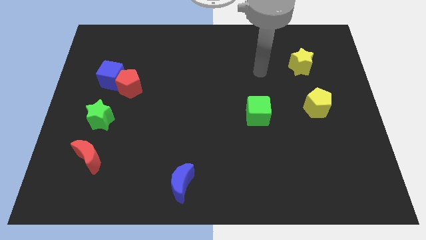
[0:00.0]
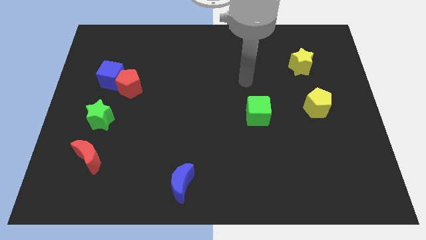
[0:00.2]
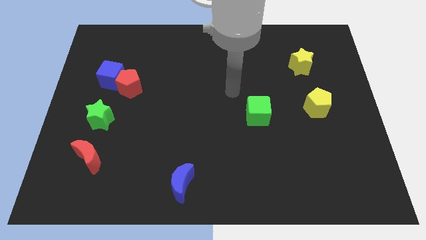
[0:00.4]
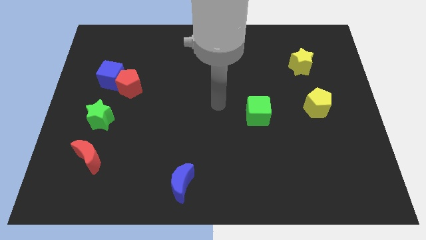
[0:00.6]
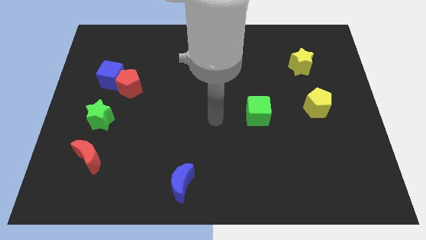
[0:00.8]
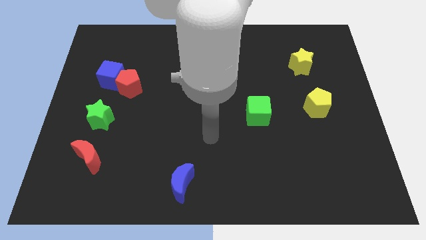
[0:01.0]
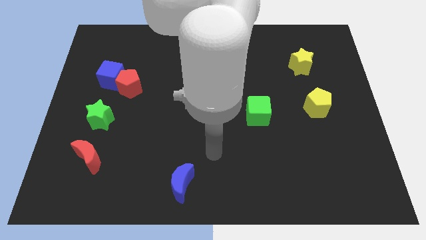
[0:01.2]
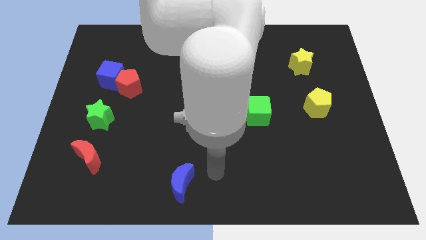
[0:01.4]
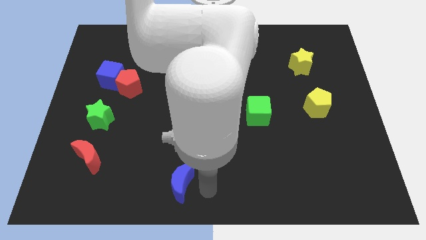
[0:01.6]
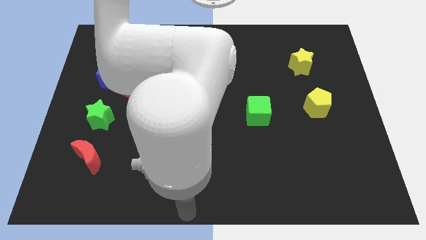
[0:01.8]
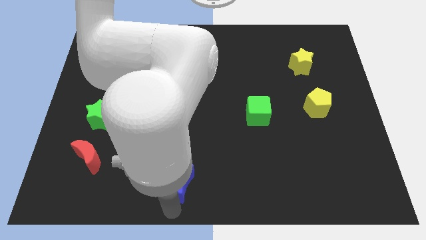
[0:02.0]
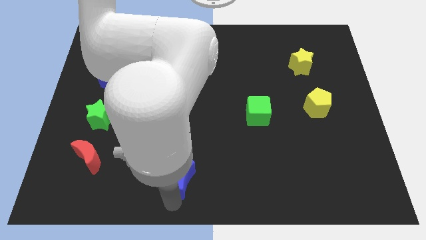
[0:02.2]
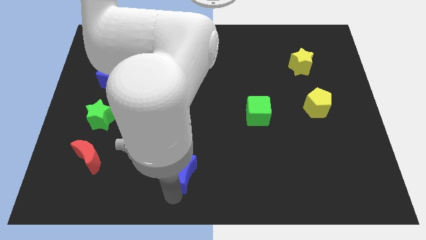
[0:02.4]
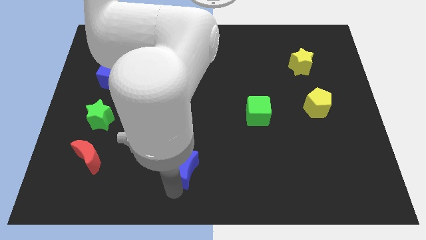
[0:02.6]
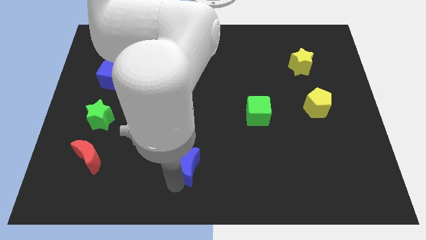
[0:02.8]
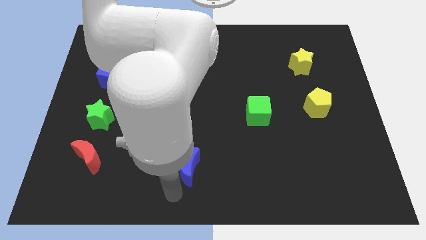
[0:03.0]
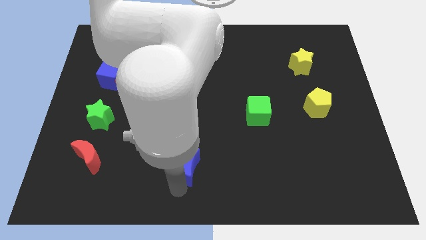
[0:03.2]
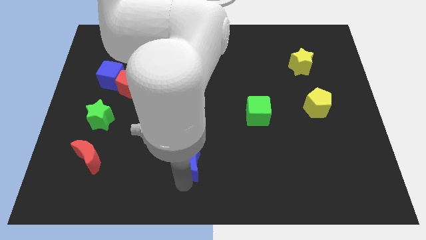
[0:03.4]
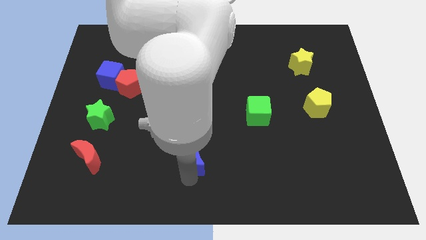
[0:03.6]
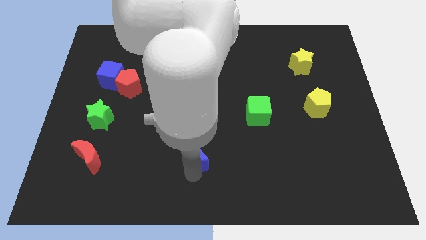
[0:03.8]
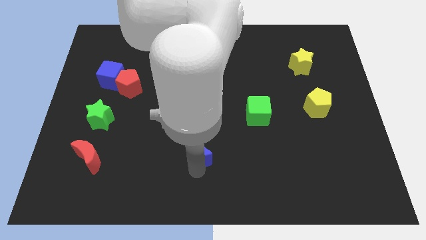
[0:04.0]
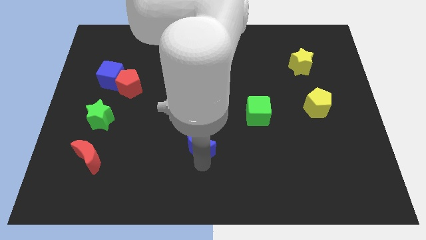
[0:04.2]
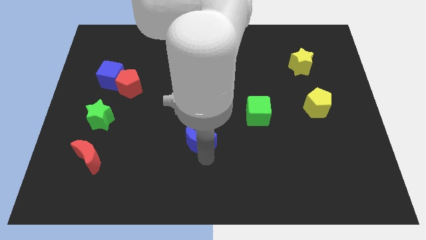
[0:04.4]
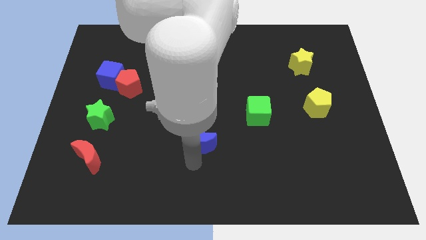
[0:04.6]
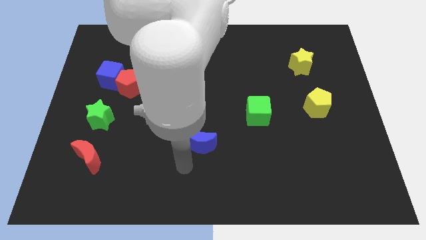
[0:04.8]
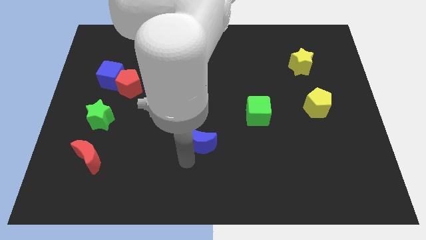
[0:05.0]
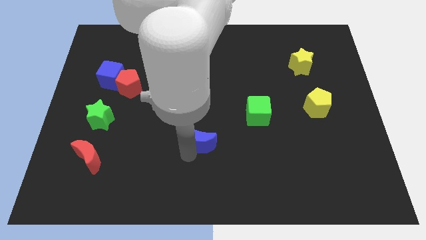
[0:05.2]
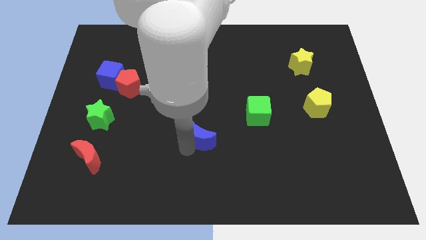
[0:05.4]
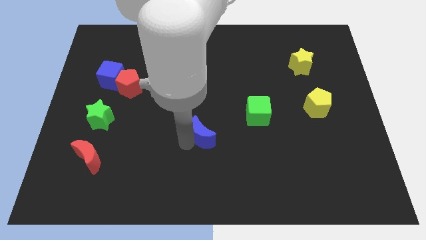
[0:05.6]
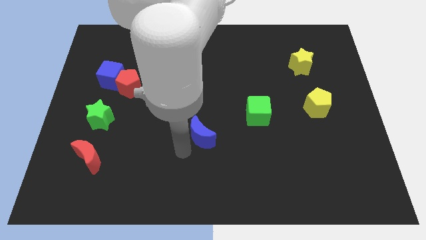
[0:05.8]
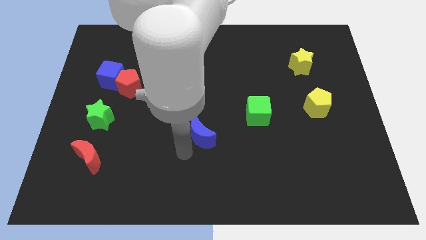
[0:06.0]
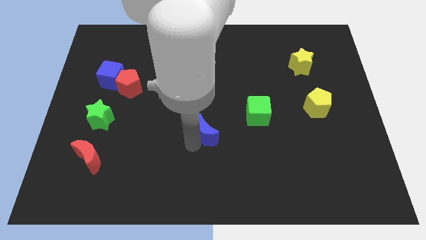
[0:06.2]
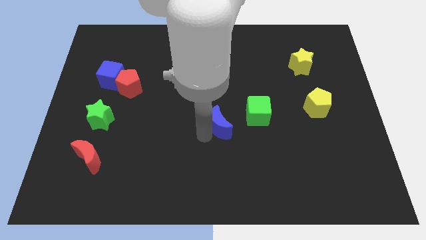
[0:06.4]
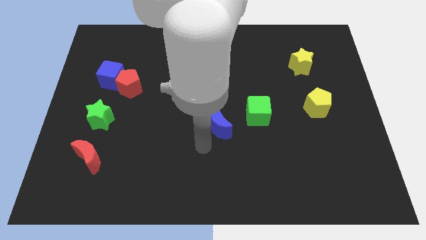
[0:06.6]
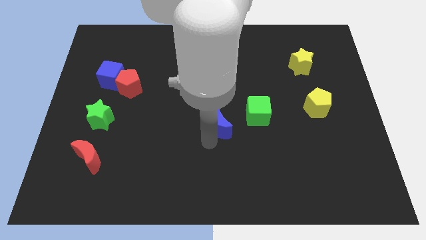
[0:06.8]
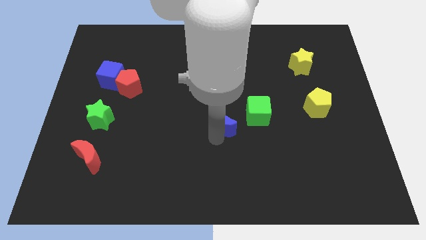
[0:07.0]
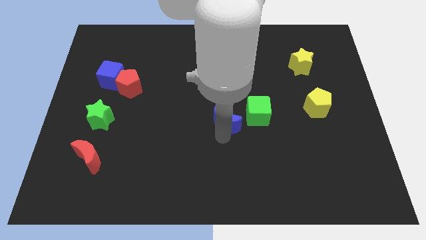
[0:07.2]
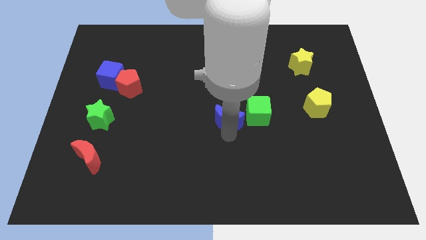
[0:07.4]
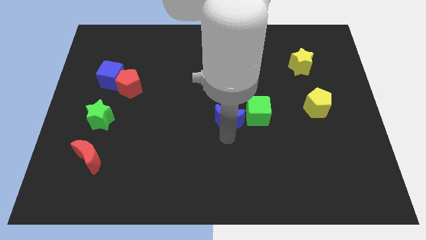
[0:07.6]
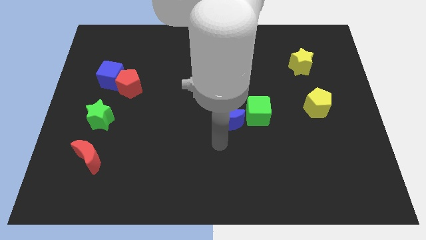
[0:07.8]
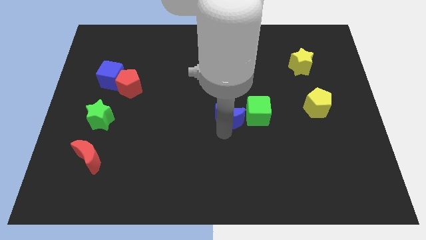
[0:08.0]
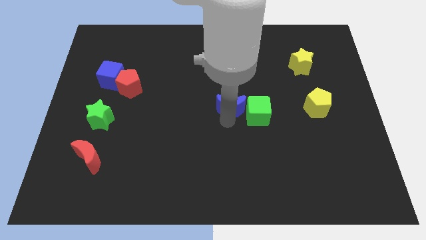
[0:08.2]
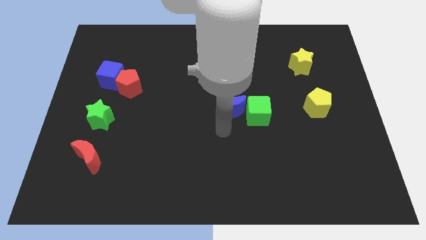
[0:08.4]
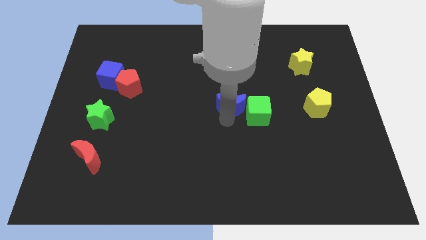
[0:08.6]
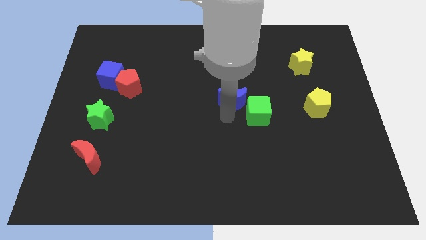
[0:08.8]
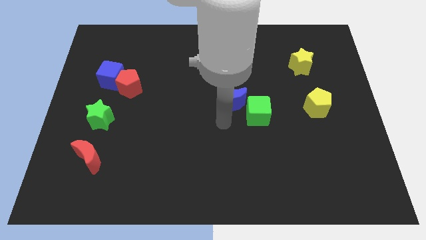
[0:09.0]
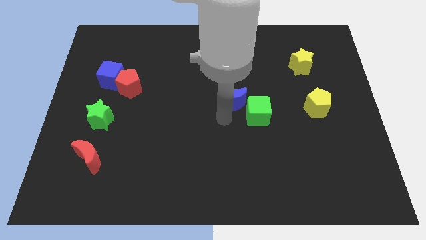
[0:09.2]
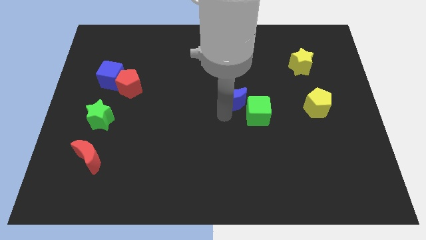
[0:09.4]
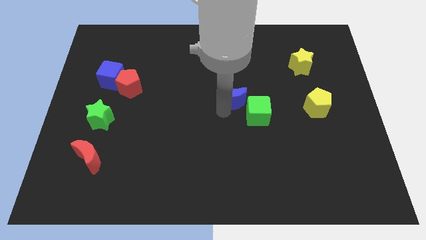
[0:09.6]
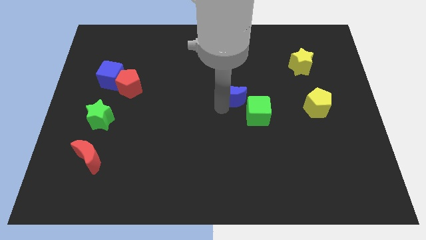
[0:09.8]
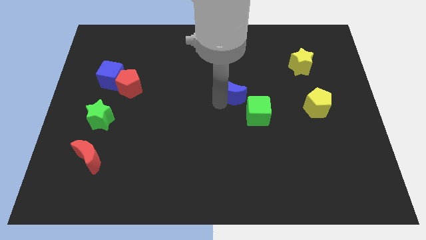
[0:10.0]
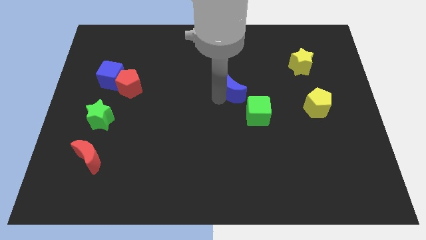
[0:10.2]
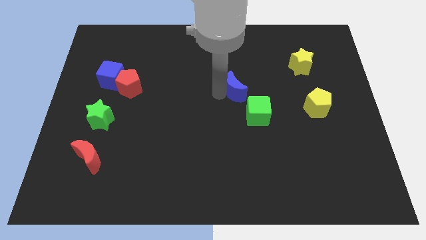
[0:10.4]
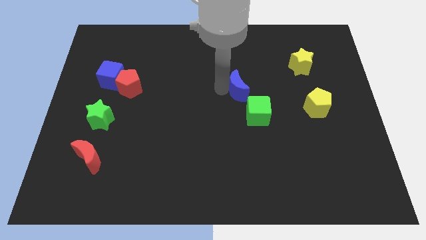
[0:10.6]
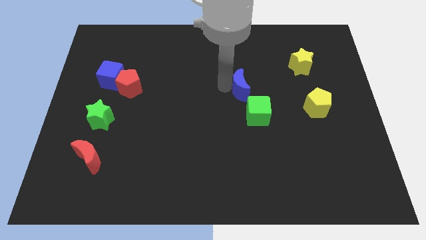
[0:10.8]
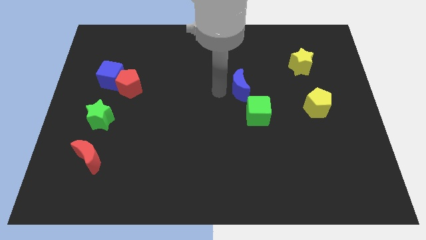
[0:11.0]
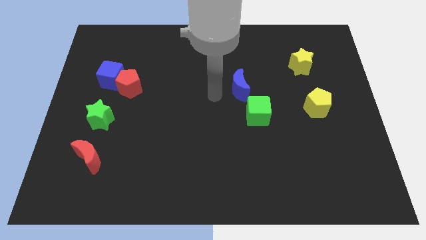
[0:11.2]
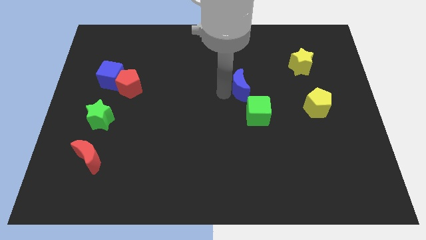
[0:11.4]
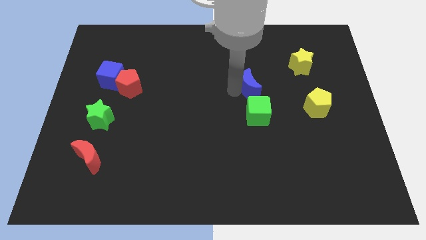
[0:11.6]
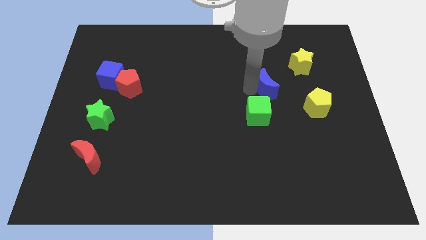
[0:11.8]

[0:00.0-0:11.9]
slide the blue moon diagonally down and to the left of the yellow star

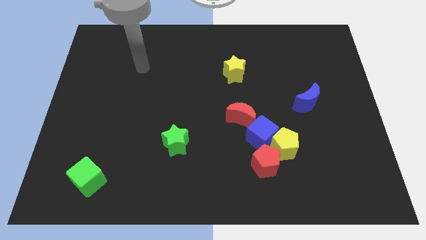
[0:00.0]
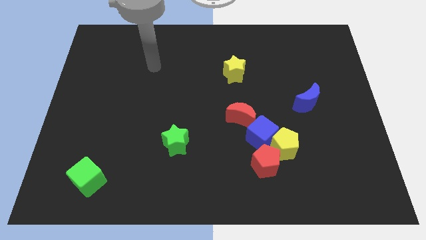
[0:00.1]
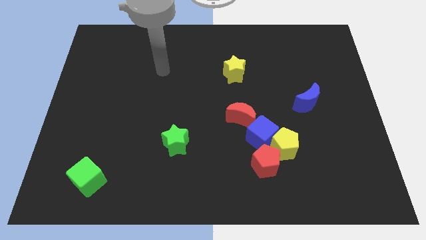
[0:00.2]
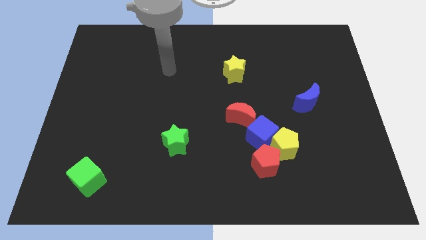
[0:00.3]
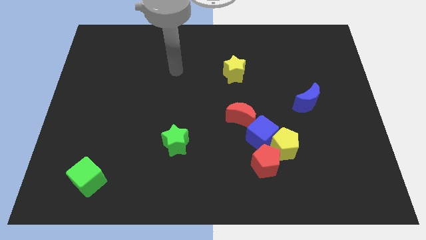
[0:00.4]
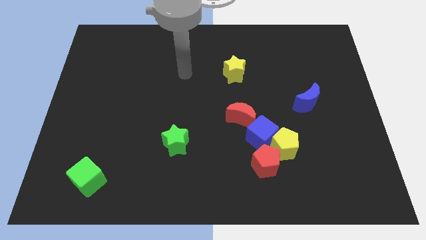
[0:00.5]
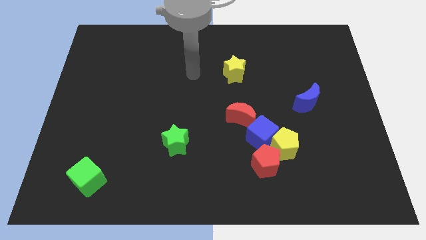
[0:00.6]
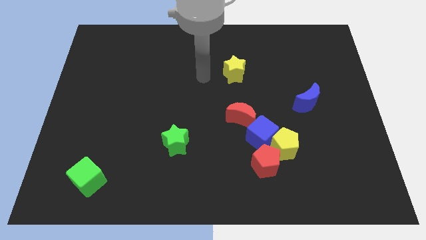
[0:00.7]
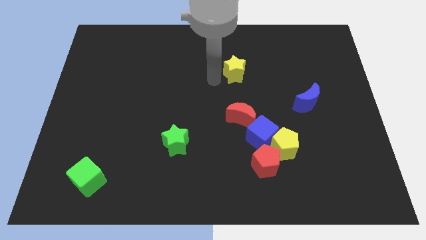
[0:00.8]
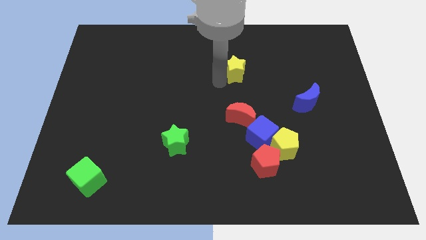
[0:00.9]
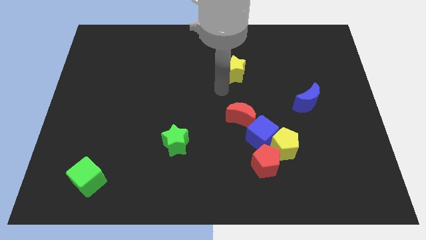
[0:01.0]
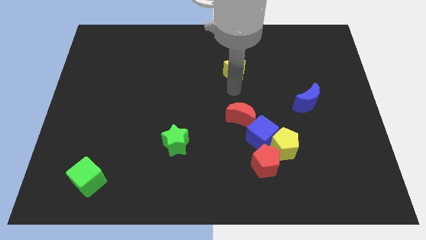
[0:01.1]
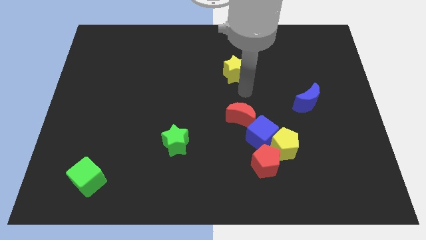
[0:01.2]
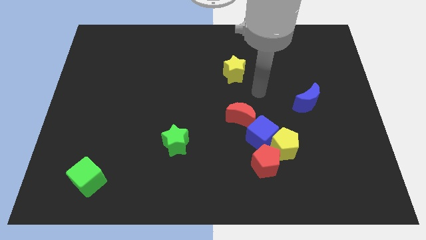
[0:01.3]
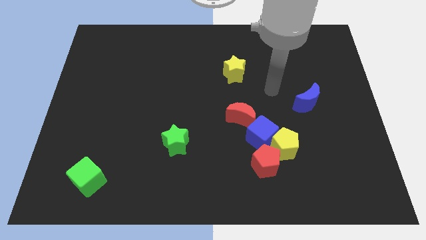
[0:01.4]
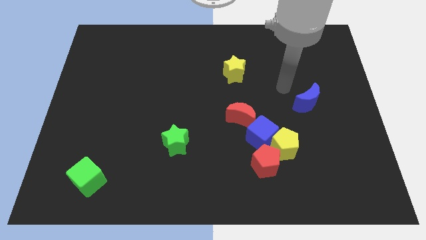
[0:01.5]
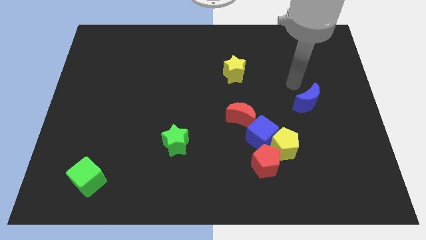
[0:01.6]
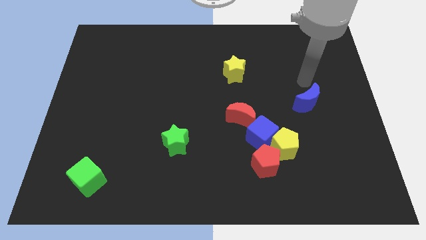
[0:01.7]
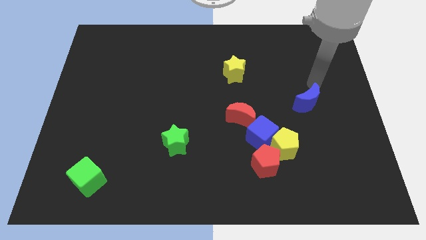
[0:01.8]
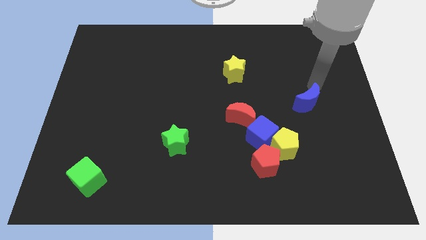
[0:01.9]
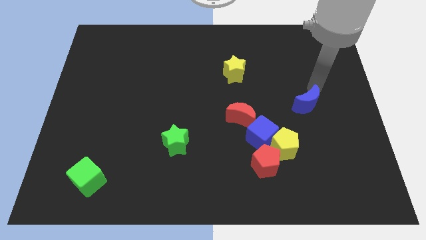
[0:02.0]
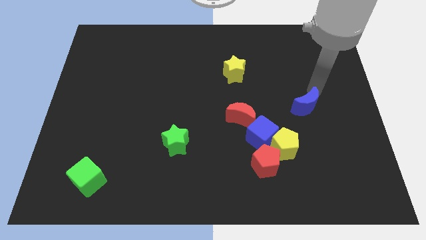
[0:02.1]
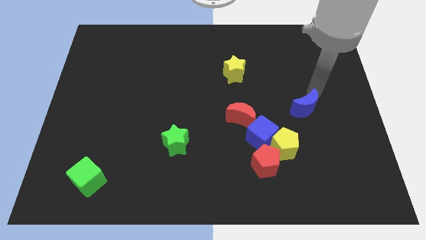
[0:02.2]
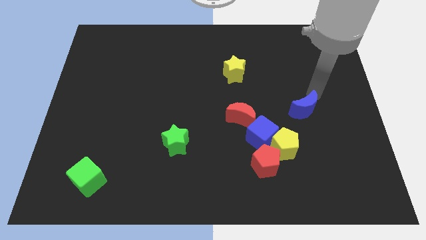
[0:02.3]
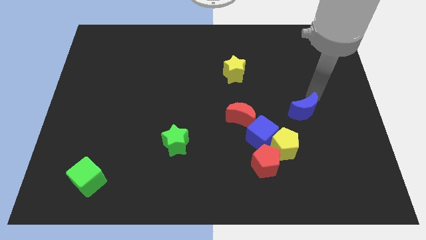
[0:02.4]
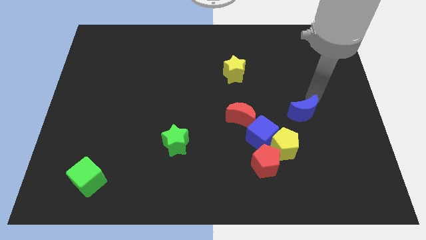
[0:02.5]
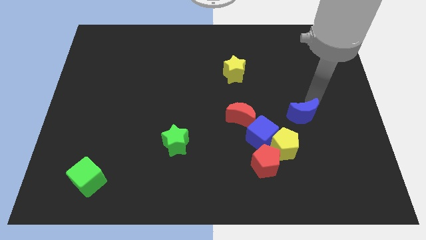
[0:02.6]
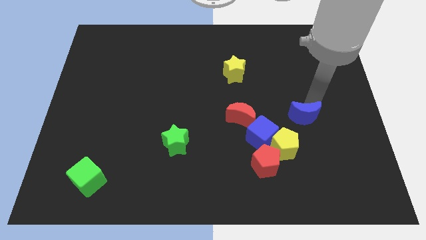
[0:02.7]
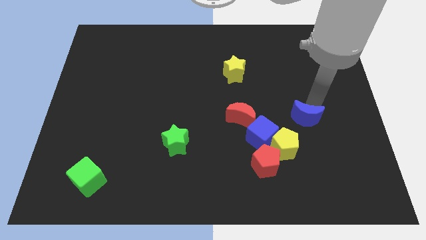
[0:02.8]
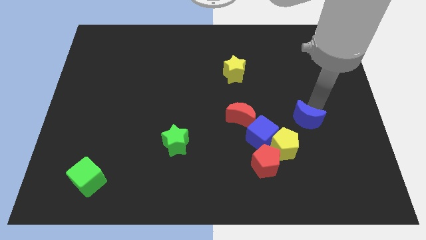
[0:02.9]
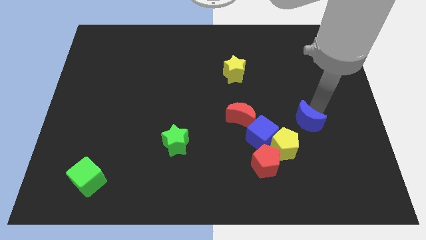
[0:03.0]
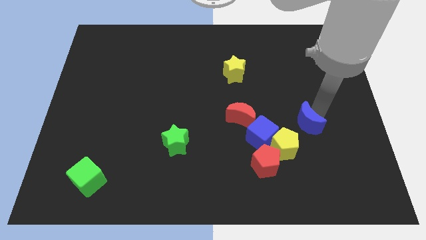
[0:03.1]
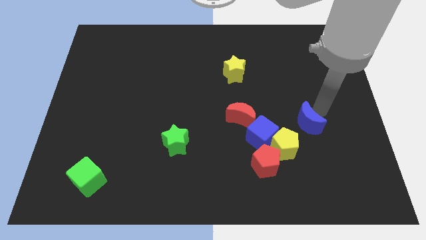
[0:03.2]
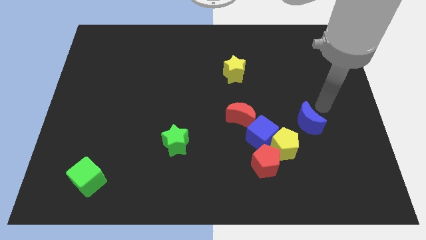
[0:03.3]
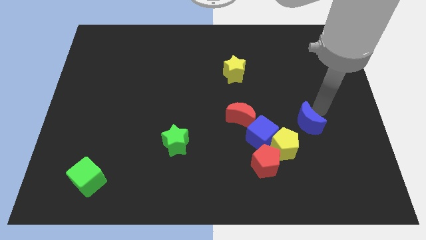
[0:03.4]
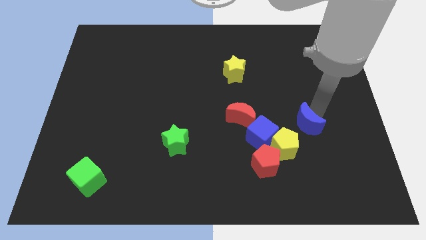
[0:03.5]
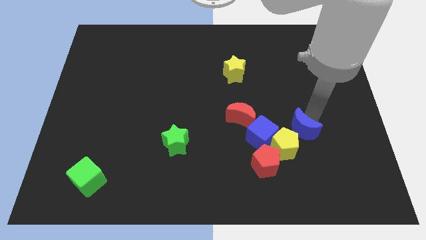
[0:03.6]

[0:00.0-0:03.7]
push the blue moon diagonally up and to the right of the red pentagon
